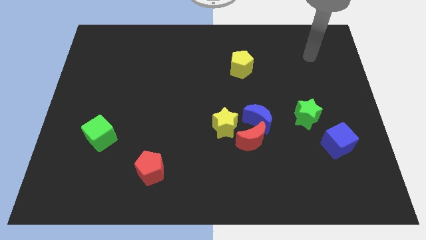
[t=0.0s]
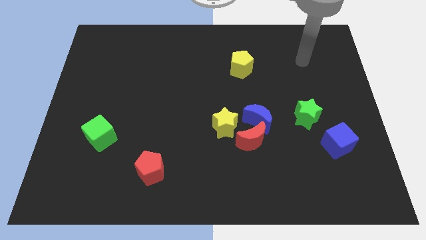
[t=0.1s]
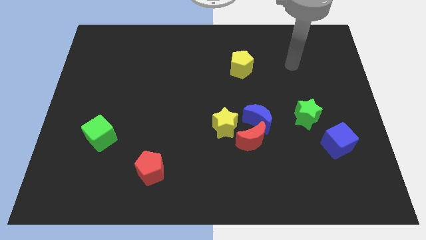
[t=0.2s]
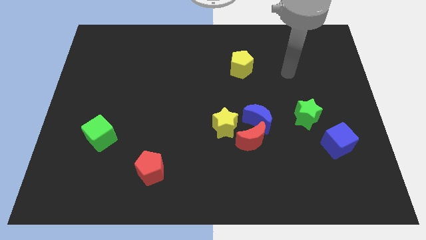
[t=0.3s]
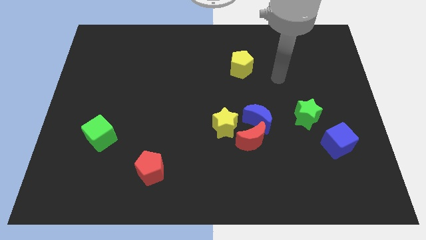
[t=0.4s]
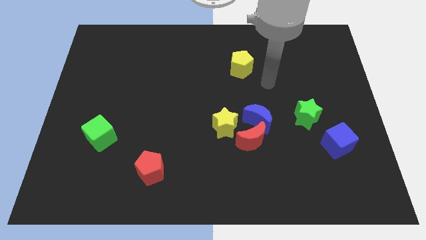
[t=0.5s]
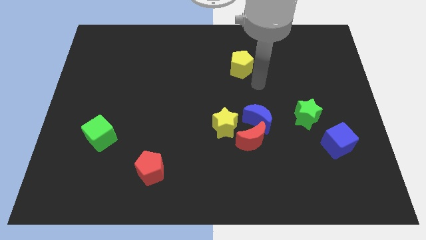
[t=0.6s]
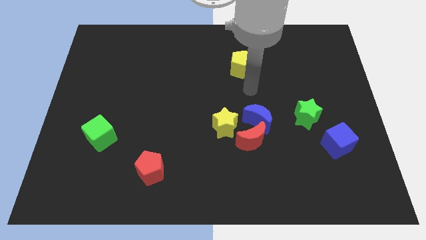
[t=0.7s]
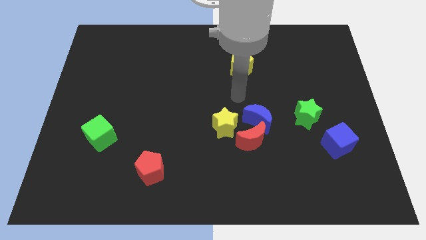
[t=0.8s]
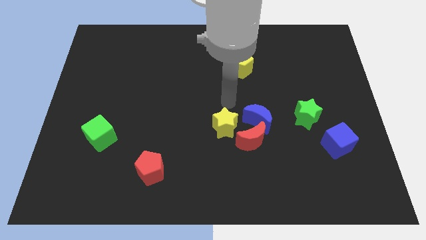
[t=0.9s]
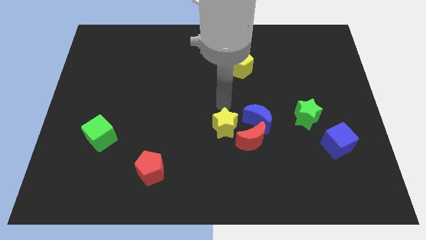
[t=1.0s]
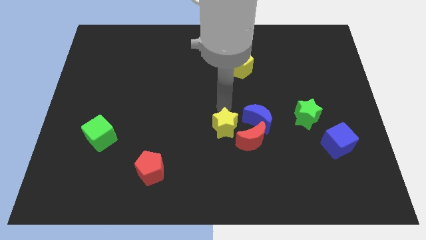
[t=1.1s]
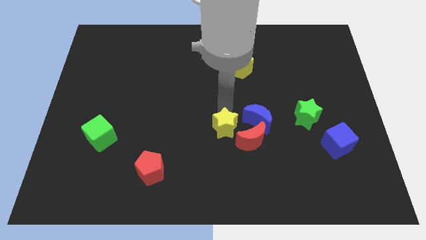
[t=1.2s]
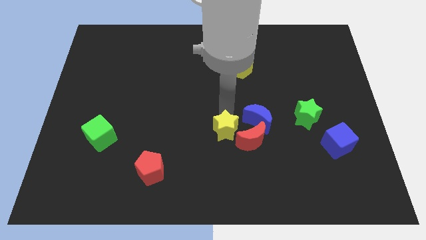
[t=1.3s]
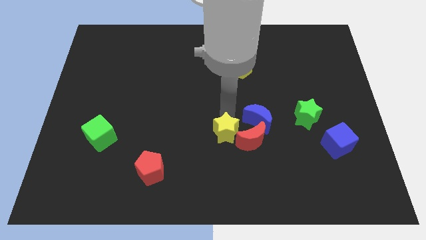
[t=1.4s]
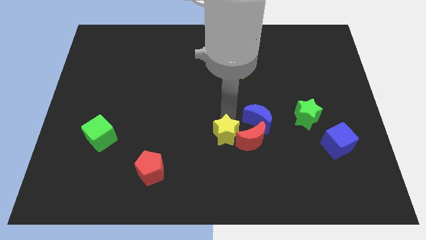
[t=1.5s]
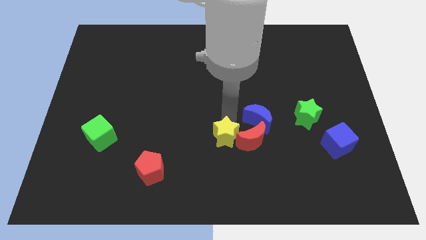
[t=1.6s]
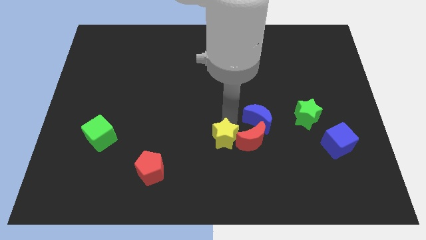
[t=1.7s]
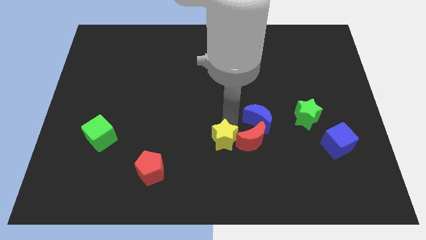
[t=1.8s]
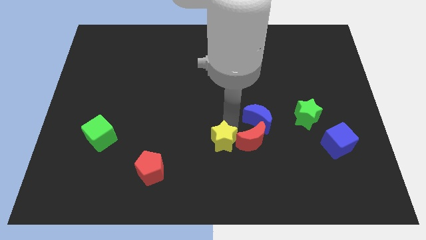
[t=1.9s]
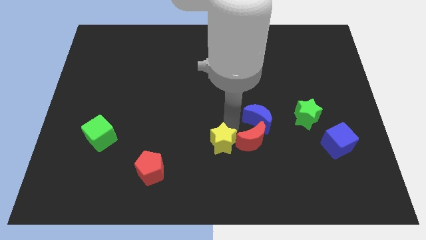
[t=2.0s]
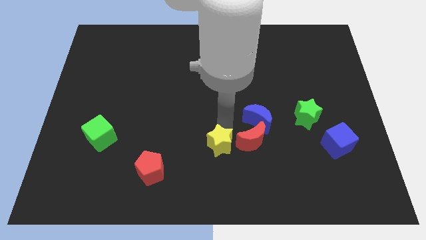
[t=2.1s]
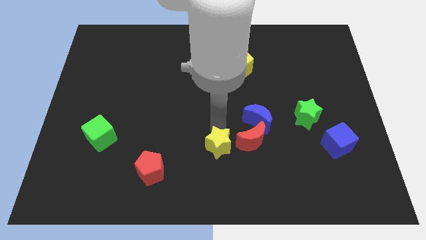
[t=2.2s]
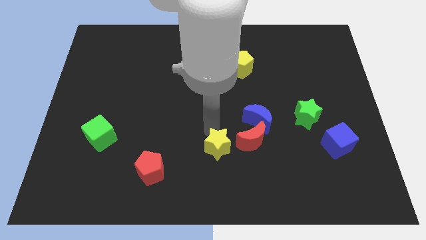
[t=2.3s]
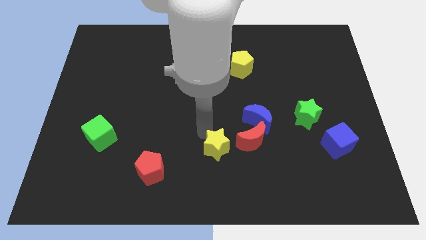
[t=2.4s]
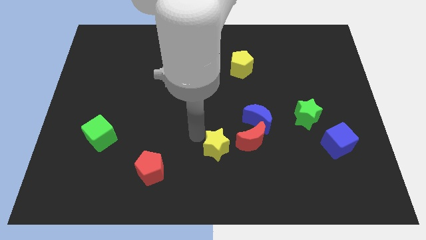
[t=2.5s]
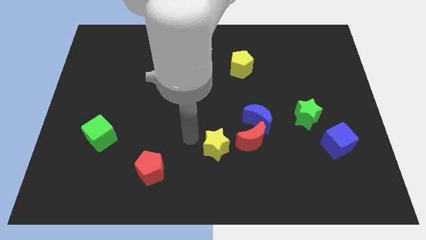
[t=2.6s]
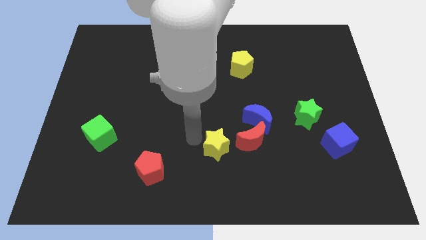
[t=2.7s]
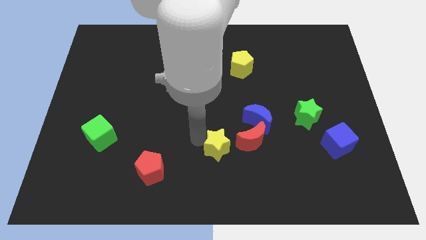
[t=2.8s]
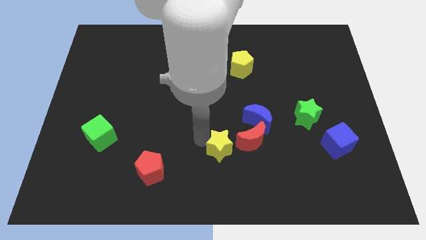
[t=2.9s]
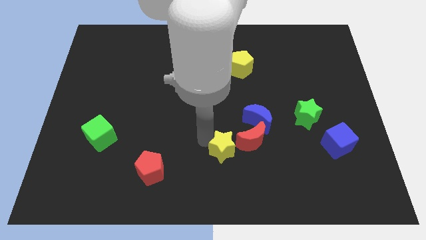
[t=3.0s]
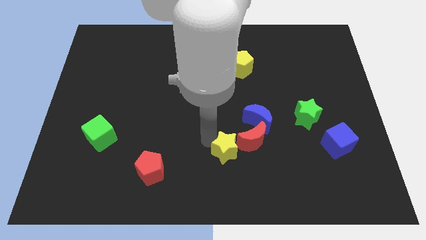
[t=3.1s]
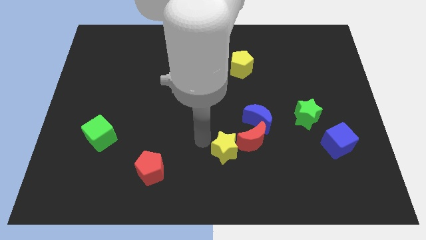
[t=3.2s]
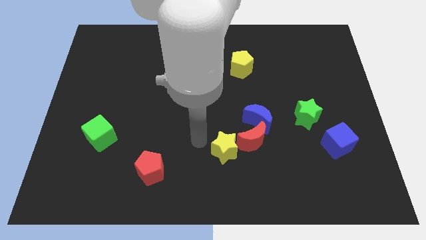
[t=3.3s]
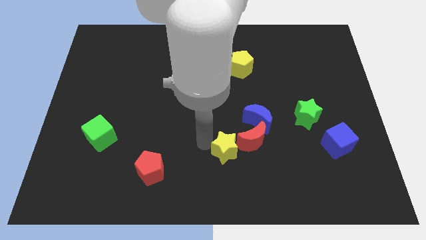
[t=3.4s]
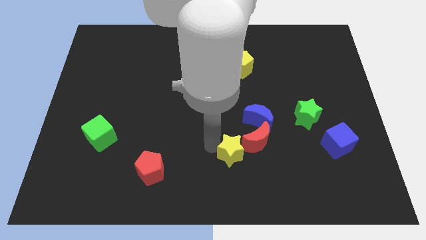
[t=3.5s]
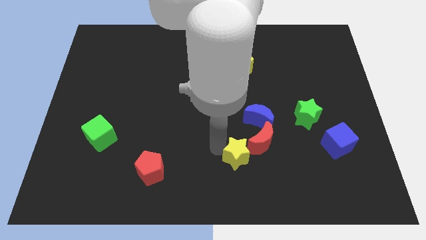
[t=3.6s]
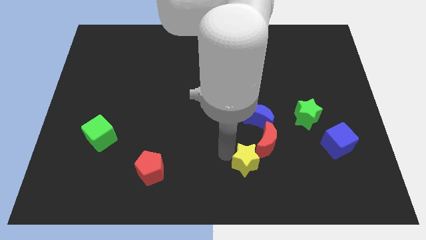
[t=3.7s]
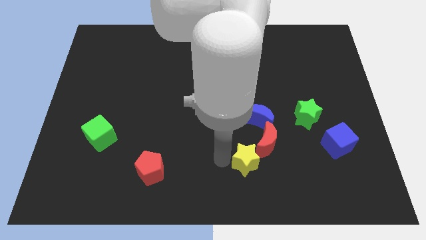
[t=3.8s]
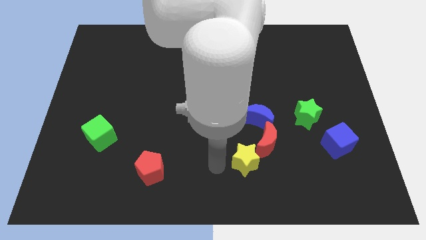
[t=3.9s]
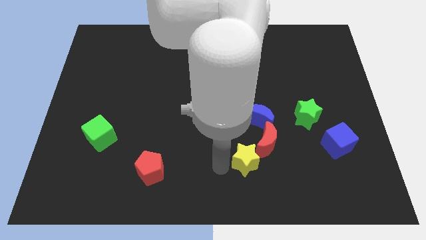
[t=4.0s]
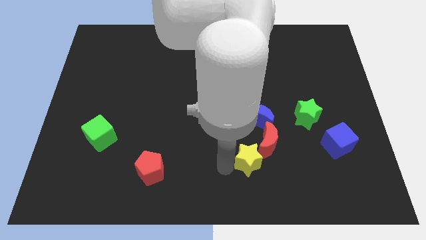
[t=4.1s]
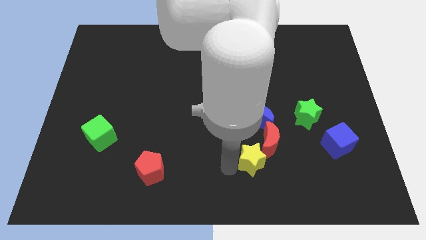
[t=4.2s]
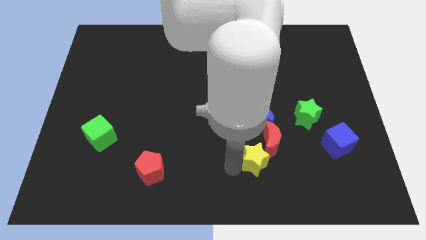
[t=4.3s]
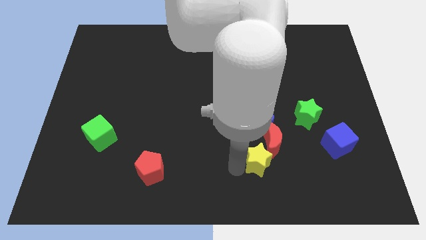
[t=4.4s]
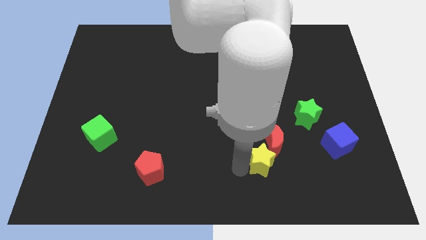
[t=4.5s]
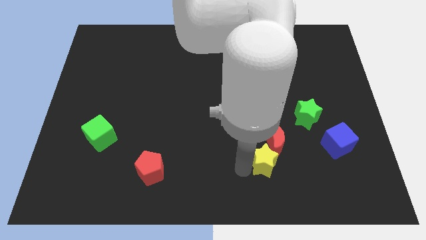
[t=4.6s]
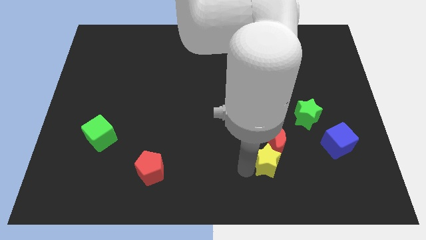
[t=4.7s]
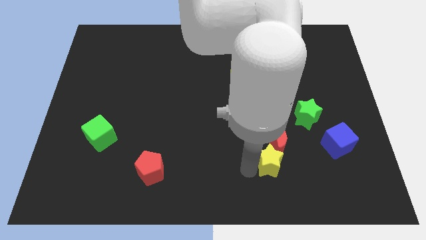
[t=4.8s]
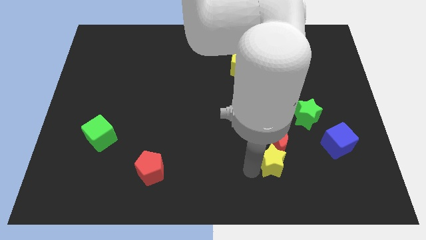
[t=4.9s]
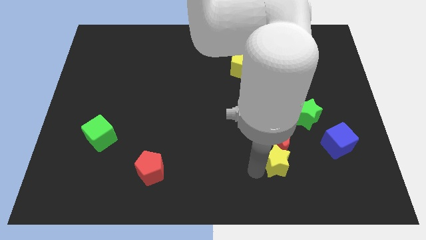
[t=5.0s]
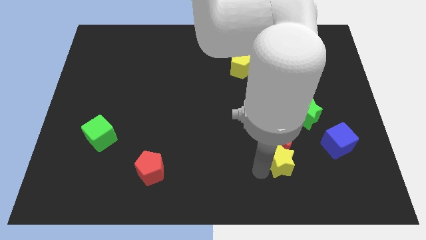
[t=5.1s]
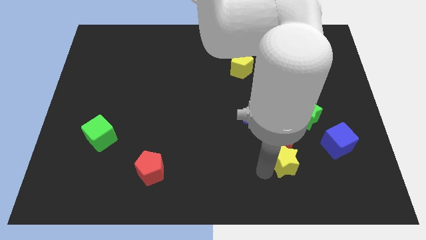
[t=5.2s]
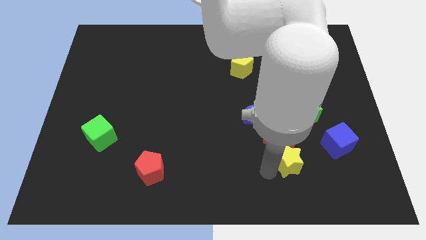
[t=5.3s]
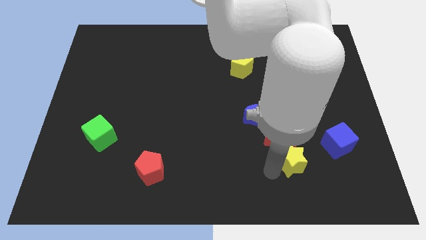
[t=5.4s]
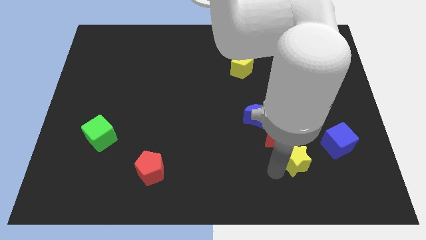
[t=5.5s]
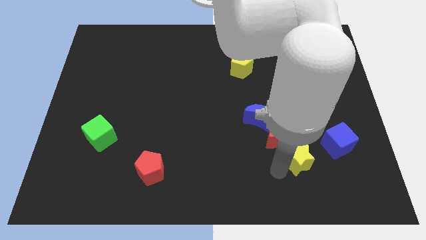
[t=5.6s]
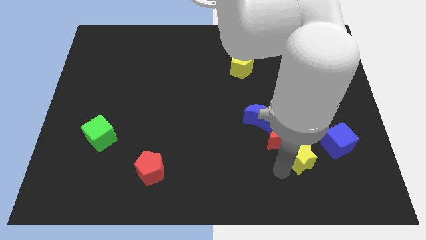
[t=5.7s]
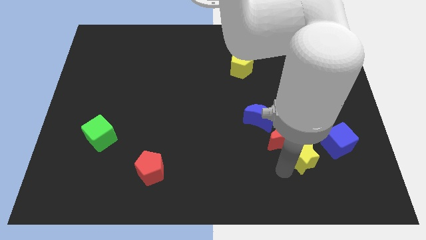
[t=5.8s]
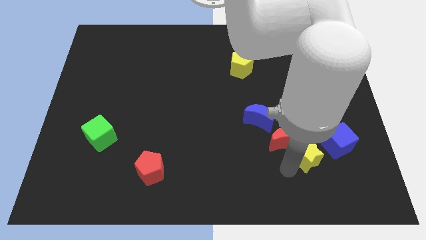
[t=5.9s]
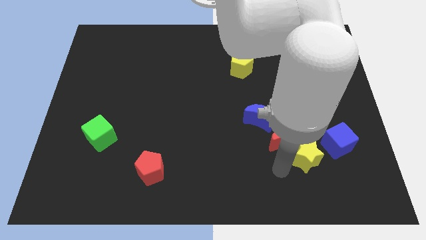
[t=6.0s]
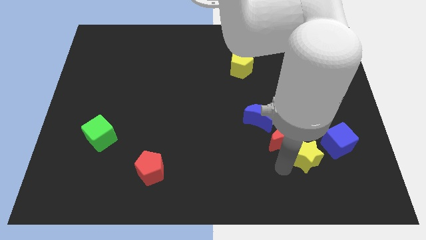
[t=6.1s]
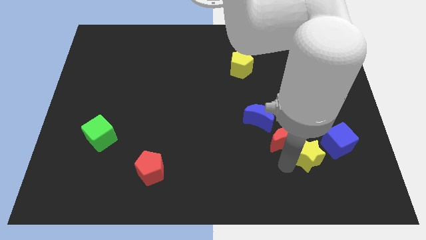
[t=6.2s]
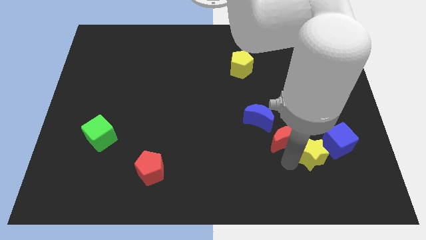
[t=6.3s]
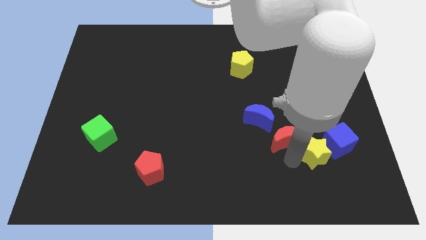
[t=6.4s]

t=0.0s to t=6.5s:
move the yellow star next to the blue cube

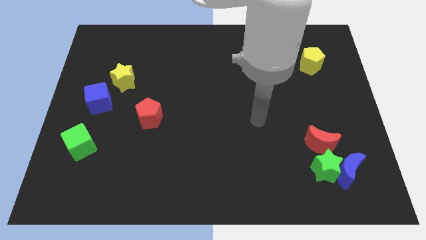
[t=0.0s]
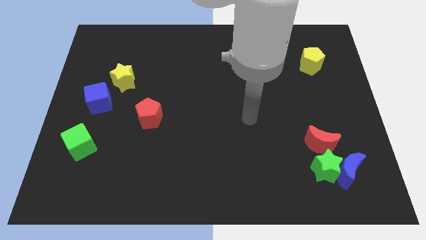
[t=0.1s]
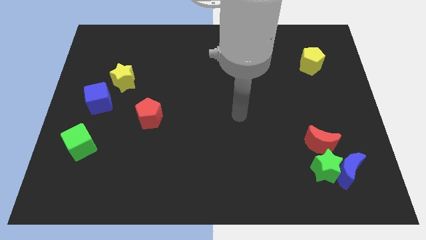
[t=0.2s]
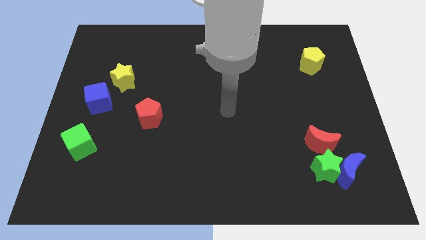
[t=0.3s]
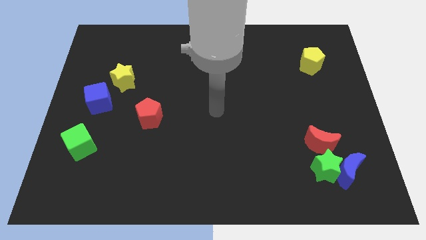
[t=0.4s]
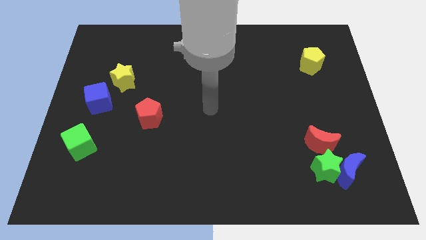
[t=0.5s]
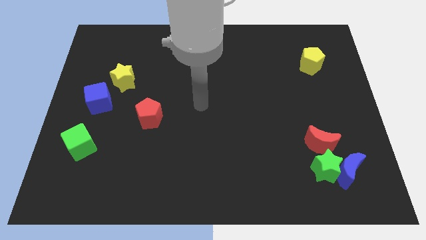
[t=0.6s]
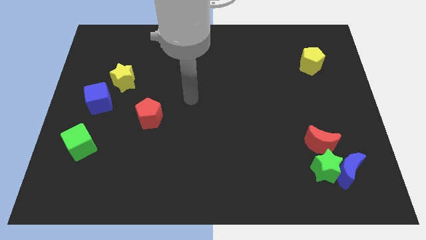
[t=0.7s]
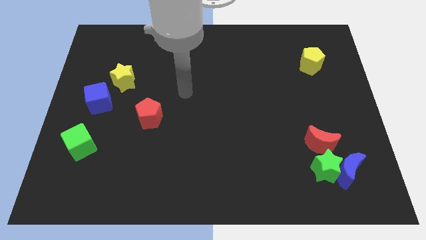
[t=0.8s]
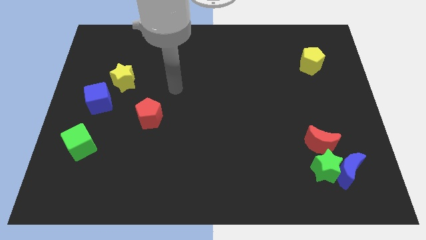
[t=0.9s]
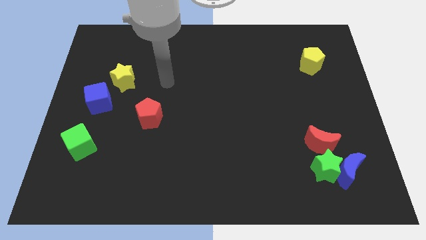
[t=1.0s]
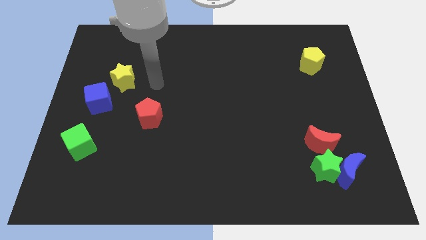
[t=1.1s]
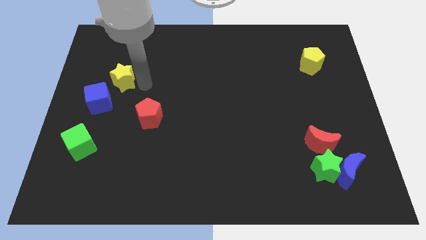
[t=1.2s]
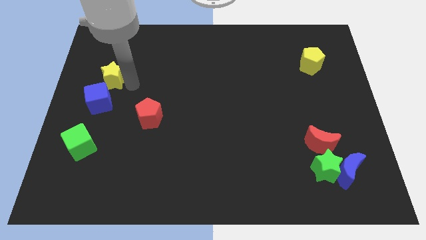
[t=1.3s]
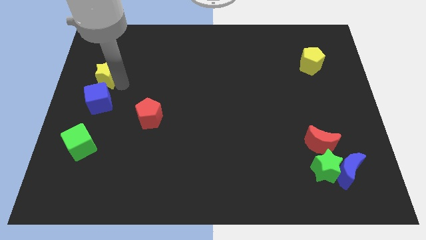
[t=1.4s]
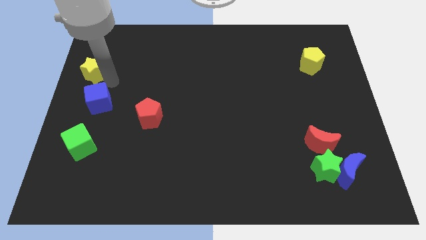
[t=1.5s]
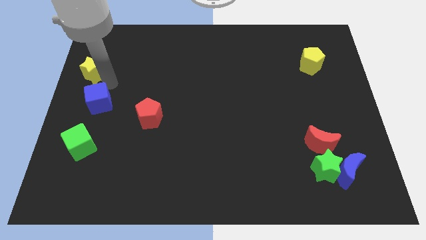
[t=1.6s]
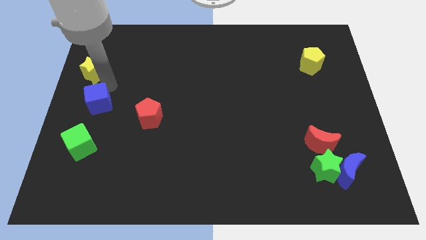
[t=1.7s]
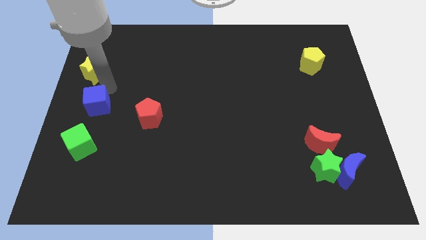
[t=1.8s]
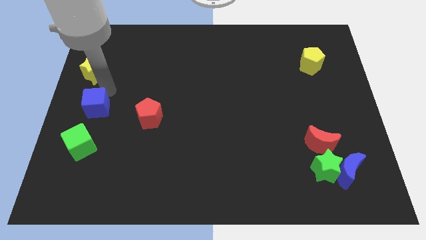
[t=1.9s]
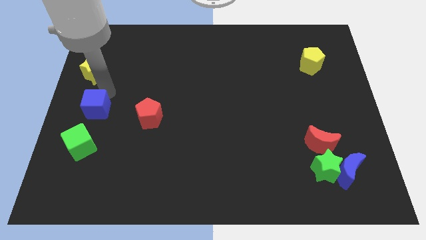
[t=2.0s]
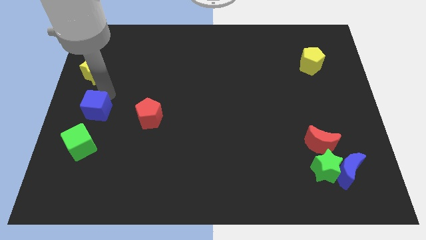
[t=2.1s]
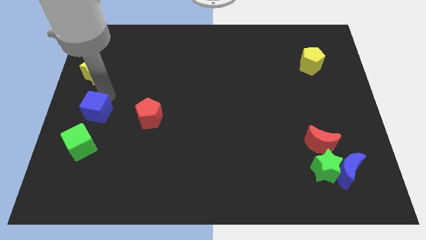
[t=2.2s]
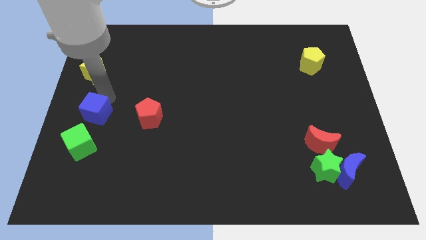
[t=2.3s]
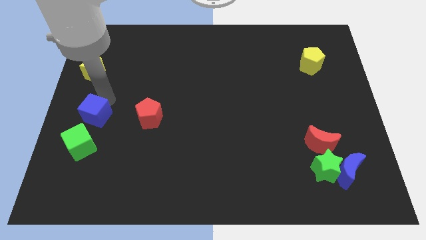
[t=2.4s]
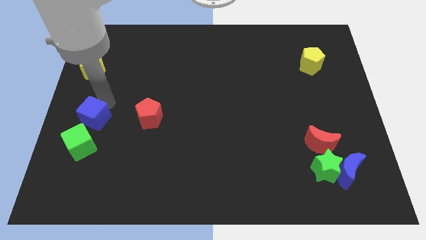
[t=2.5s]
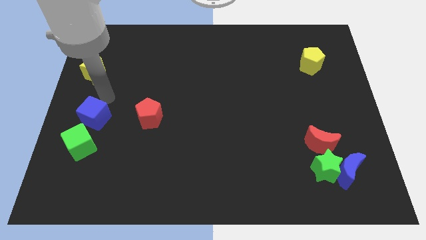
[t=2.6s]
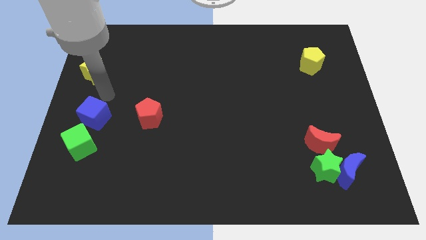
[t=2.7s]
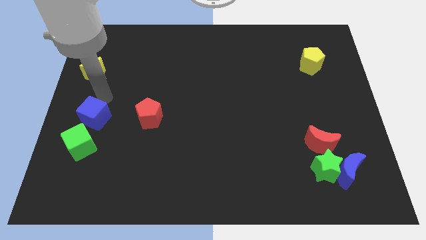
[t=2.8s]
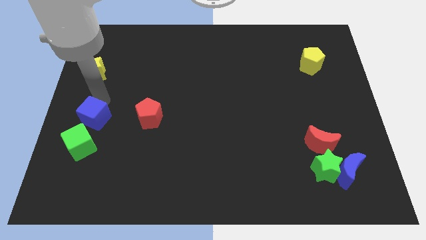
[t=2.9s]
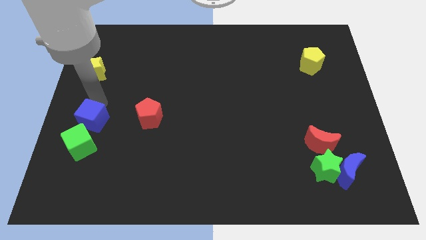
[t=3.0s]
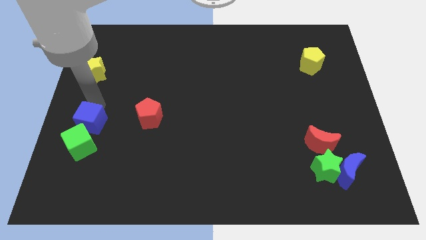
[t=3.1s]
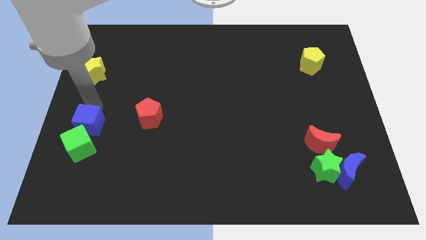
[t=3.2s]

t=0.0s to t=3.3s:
put the blue cube close to the green cube
